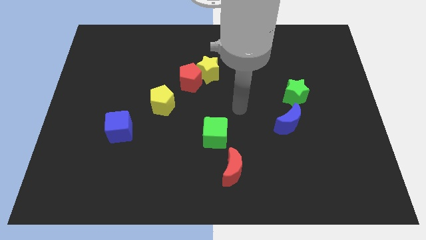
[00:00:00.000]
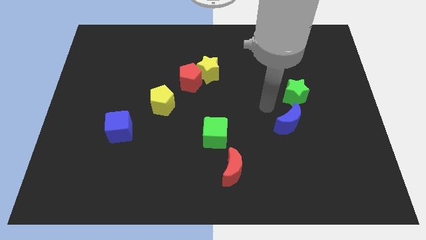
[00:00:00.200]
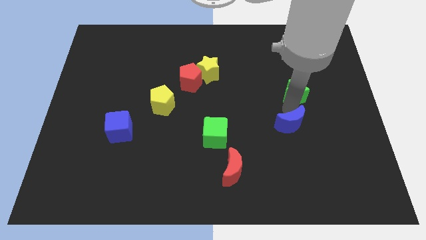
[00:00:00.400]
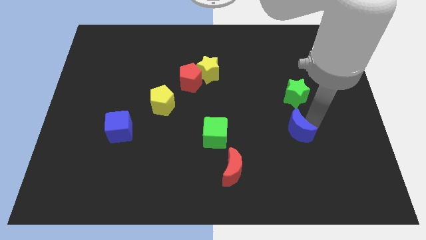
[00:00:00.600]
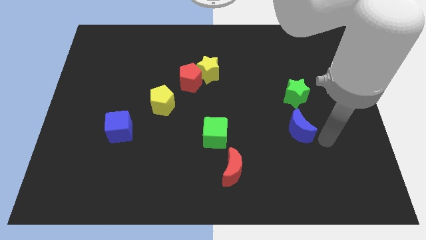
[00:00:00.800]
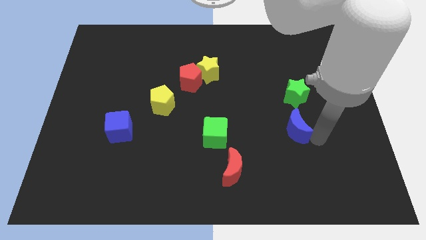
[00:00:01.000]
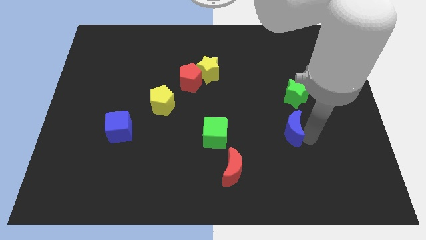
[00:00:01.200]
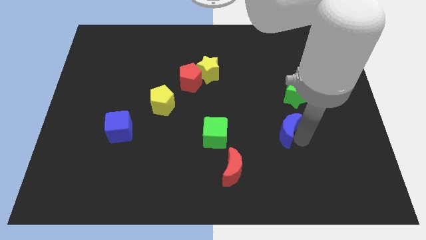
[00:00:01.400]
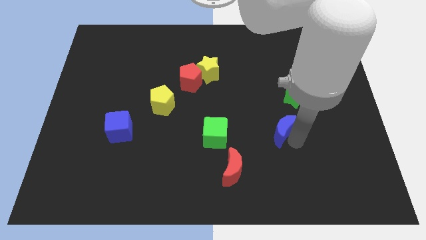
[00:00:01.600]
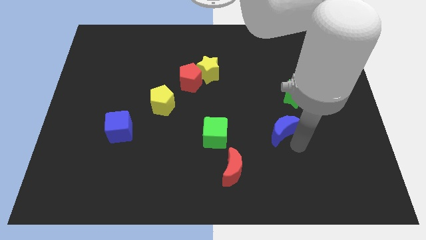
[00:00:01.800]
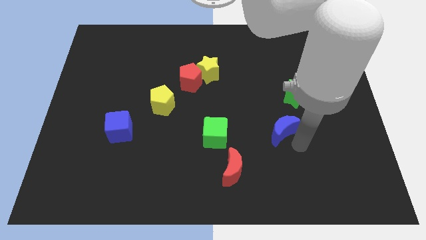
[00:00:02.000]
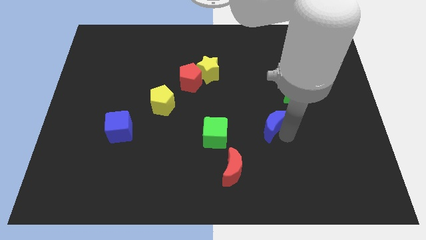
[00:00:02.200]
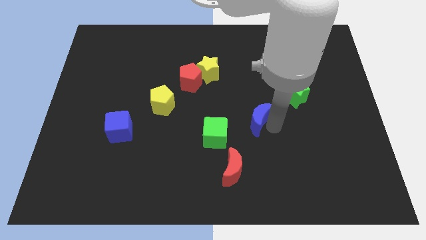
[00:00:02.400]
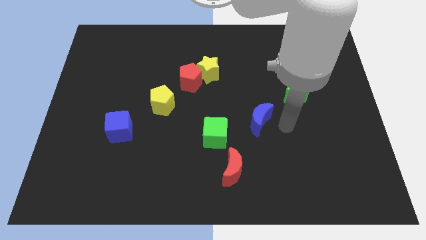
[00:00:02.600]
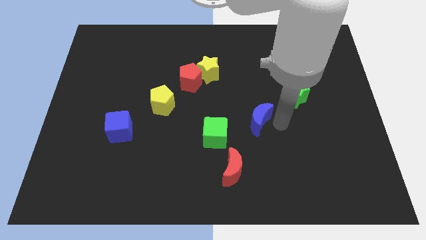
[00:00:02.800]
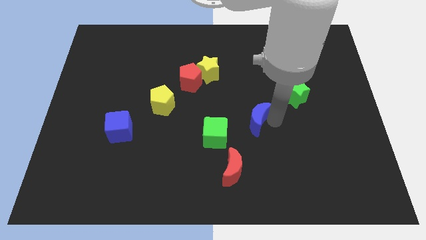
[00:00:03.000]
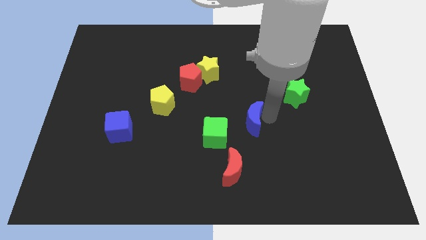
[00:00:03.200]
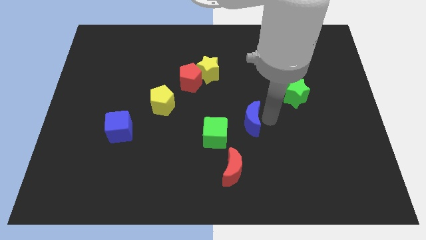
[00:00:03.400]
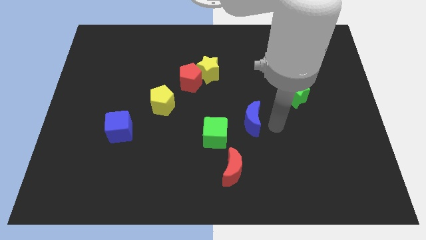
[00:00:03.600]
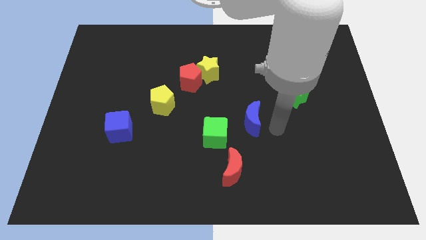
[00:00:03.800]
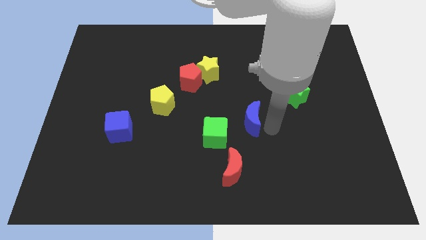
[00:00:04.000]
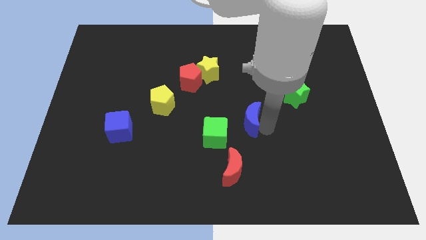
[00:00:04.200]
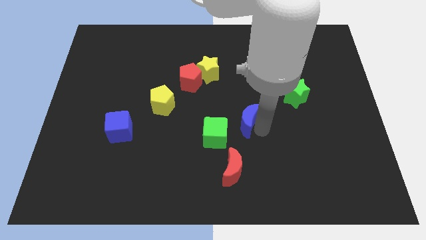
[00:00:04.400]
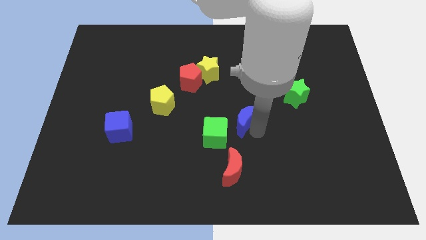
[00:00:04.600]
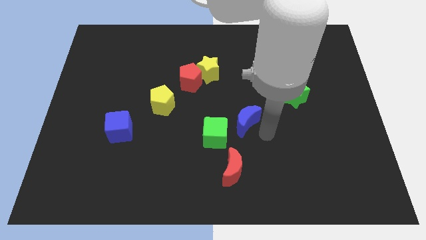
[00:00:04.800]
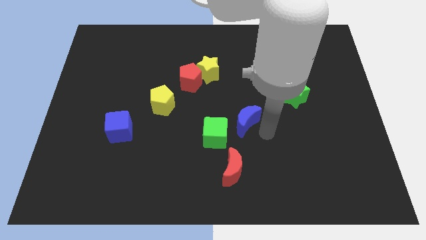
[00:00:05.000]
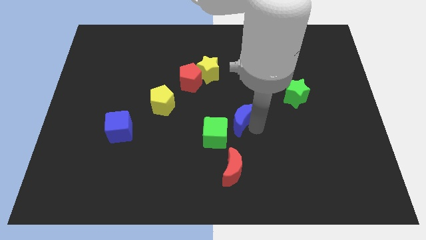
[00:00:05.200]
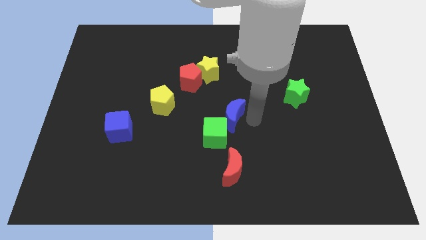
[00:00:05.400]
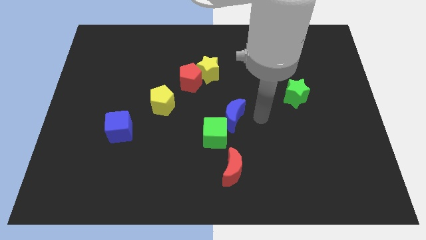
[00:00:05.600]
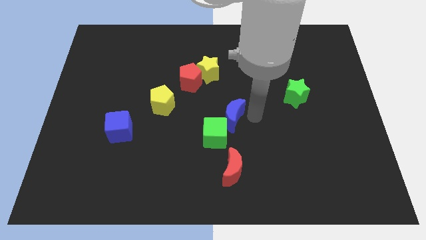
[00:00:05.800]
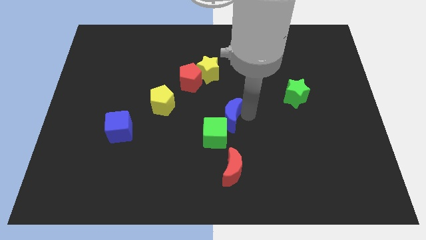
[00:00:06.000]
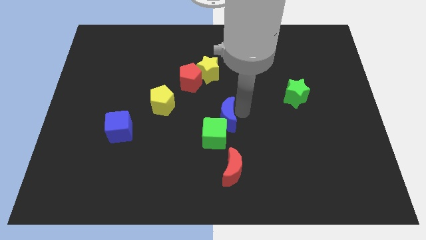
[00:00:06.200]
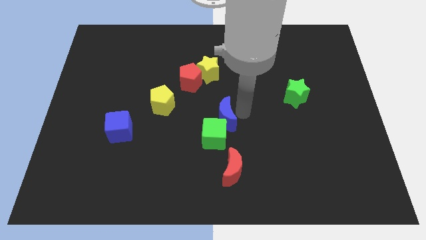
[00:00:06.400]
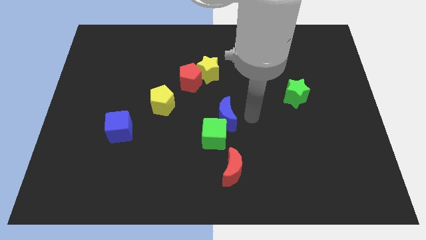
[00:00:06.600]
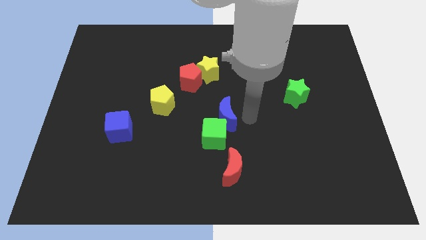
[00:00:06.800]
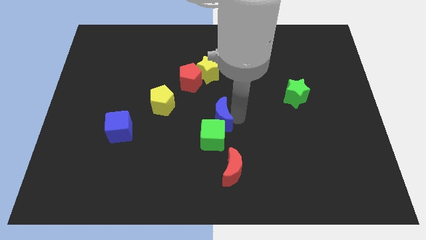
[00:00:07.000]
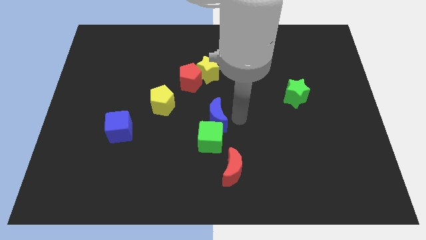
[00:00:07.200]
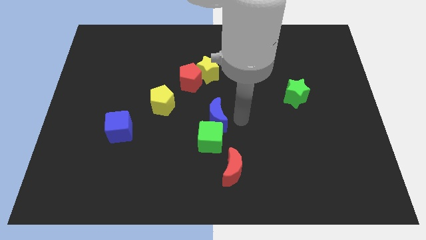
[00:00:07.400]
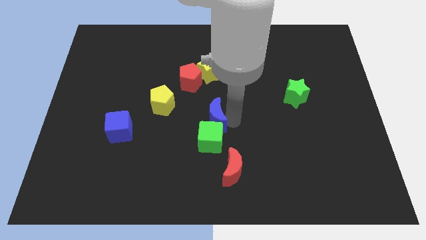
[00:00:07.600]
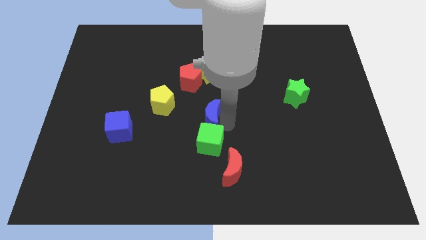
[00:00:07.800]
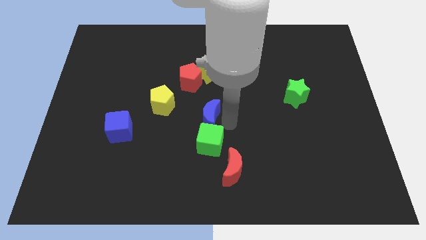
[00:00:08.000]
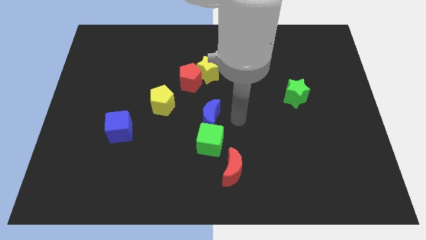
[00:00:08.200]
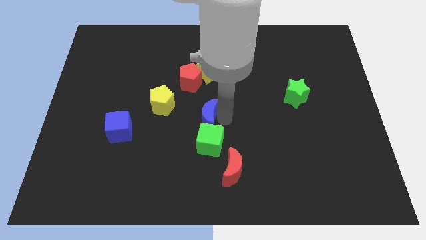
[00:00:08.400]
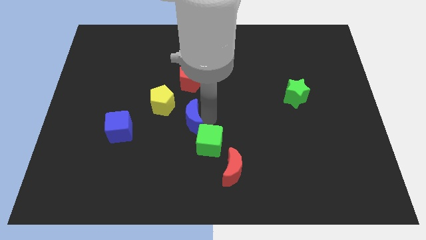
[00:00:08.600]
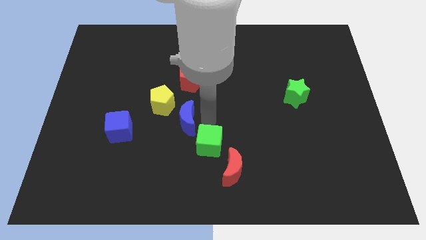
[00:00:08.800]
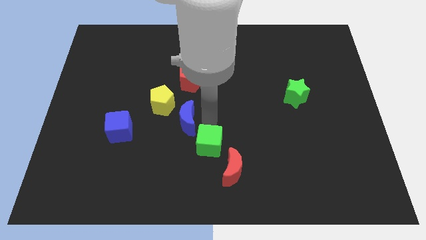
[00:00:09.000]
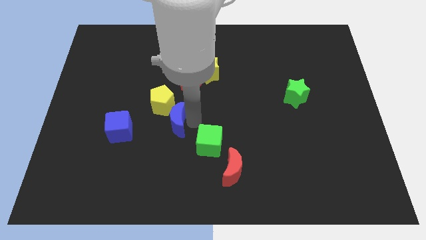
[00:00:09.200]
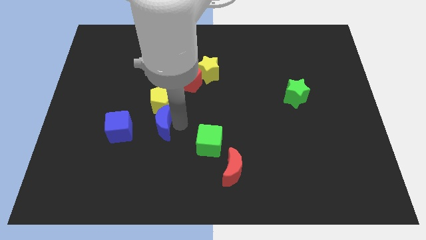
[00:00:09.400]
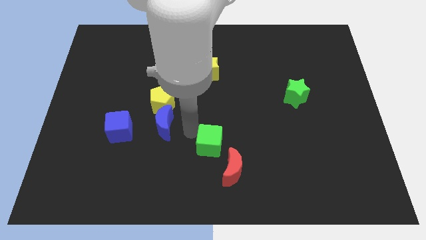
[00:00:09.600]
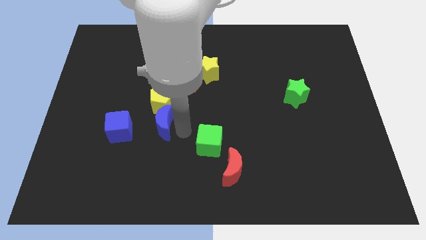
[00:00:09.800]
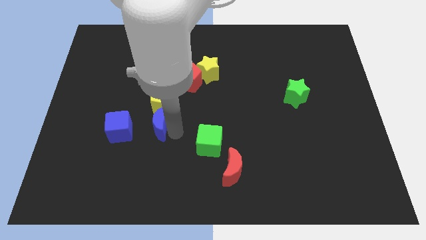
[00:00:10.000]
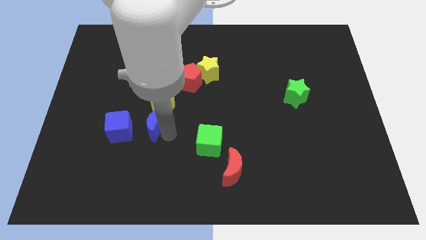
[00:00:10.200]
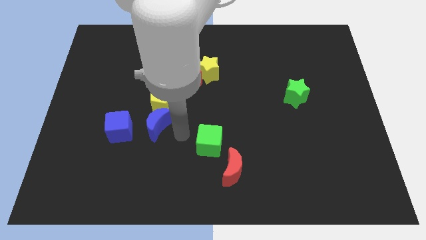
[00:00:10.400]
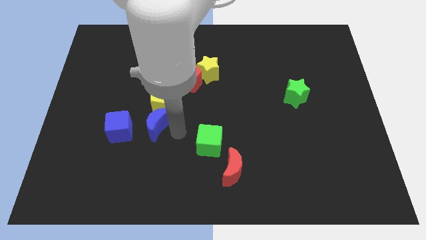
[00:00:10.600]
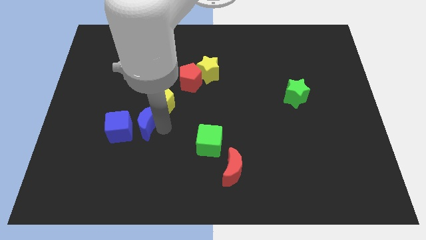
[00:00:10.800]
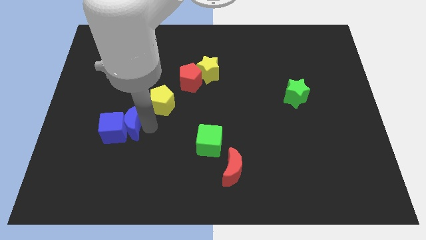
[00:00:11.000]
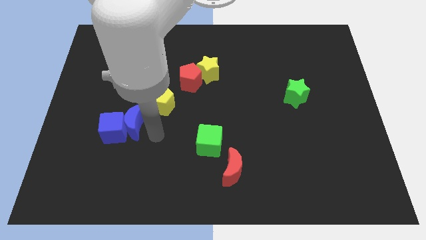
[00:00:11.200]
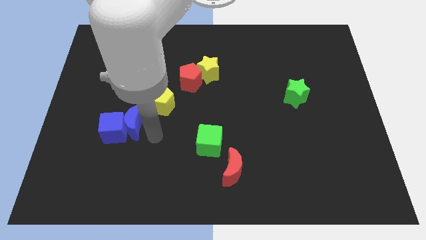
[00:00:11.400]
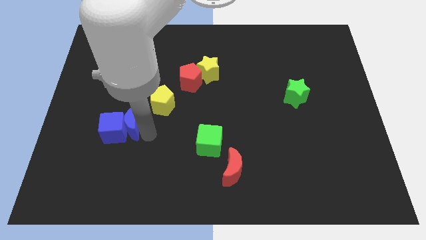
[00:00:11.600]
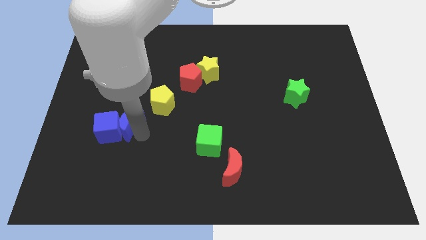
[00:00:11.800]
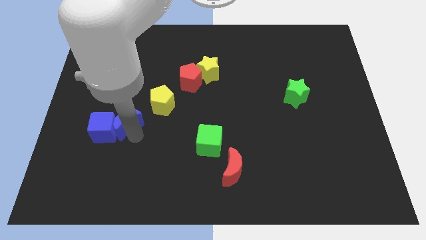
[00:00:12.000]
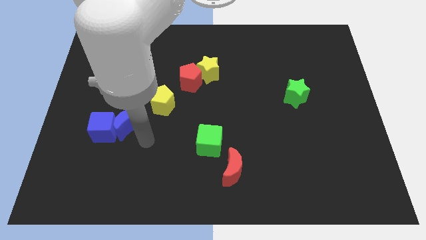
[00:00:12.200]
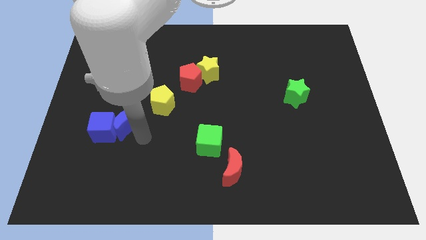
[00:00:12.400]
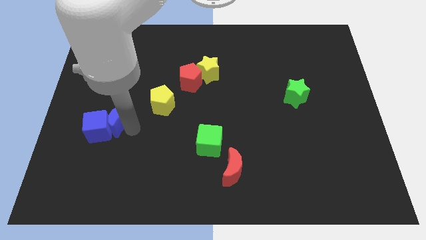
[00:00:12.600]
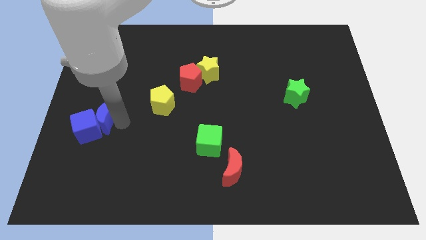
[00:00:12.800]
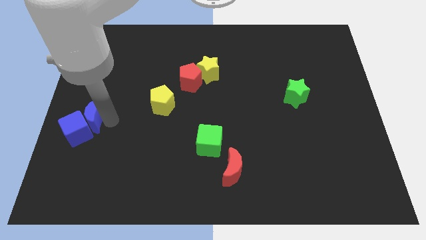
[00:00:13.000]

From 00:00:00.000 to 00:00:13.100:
push the blue moon to the center left
